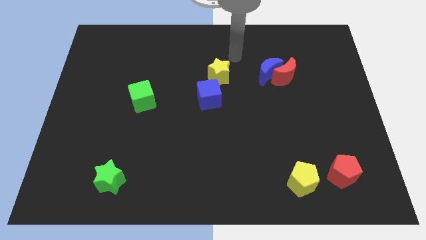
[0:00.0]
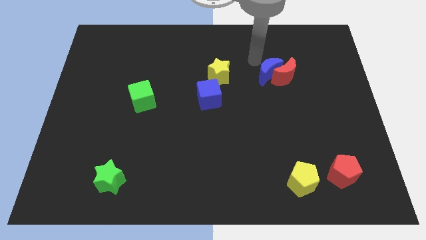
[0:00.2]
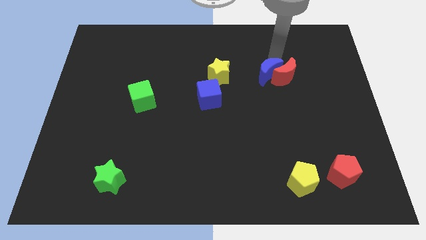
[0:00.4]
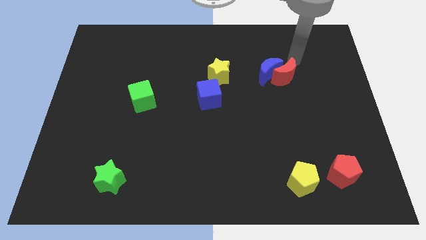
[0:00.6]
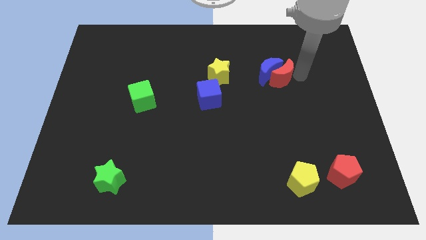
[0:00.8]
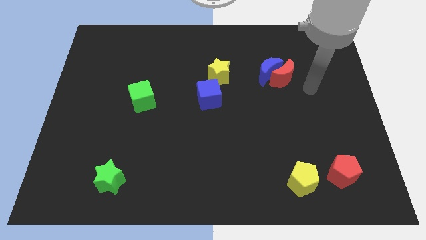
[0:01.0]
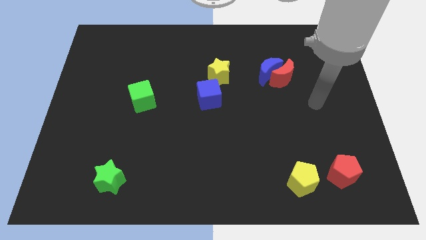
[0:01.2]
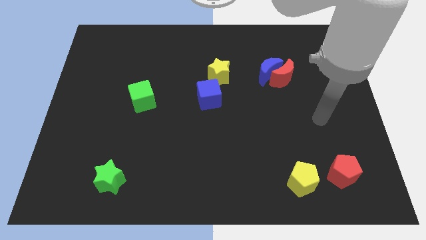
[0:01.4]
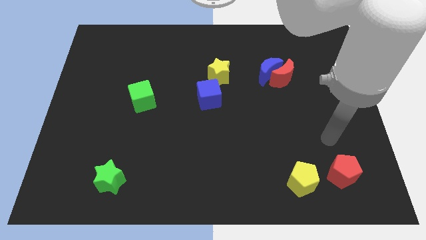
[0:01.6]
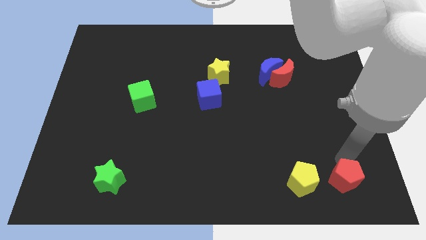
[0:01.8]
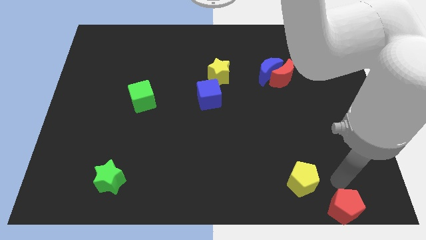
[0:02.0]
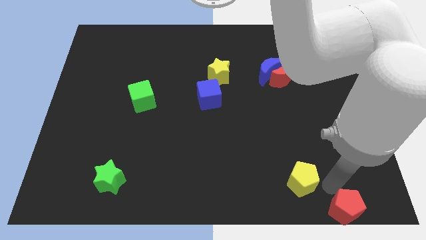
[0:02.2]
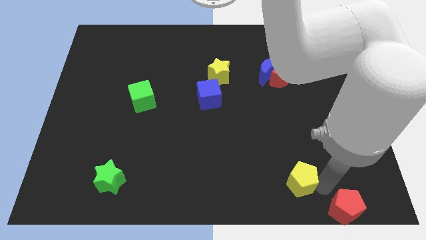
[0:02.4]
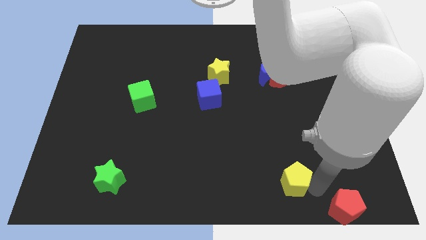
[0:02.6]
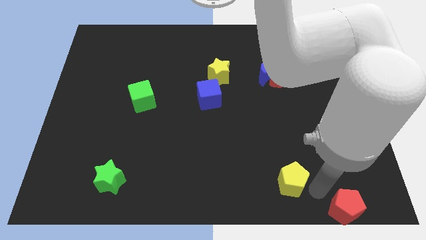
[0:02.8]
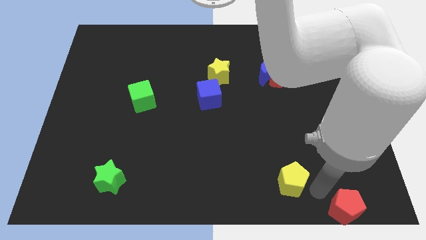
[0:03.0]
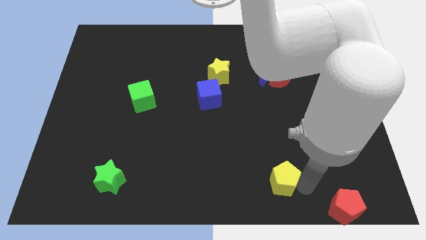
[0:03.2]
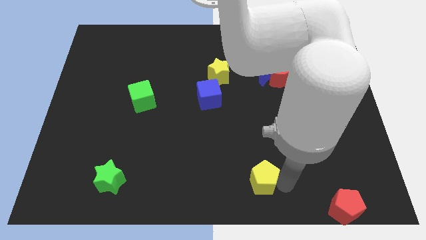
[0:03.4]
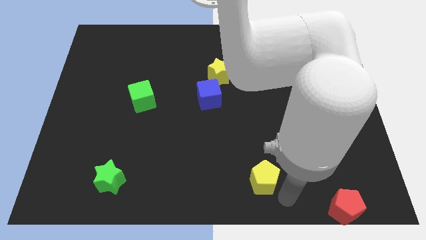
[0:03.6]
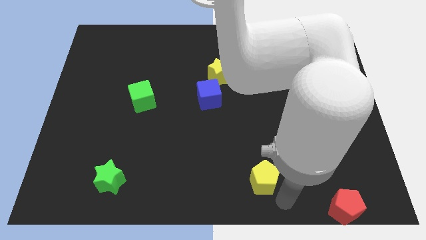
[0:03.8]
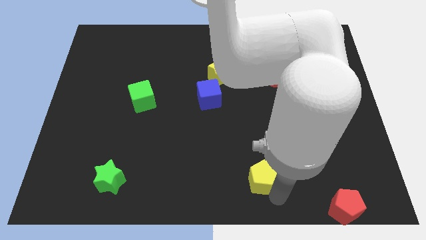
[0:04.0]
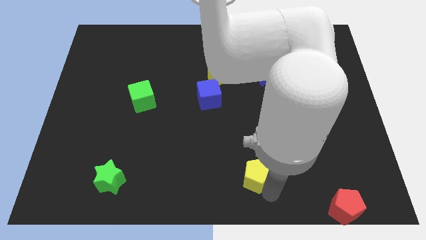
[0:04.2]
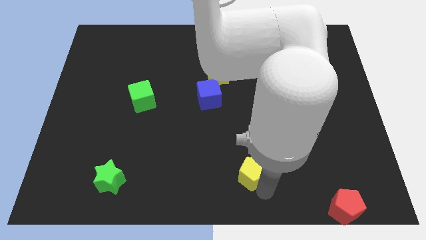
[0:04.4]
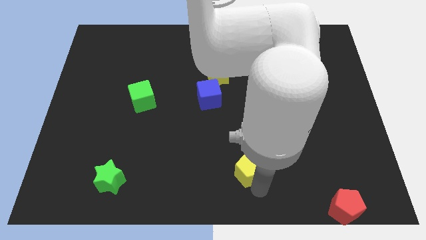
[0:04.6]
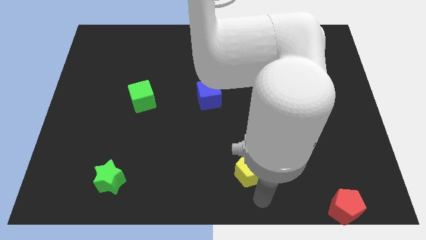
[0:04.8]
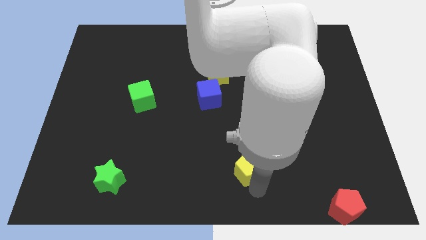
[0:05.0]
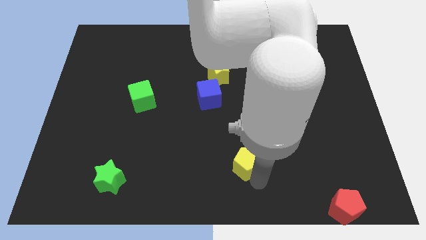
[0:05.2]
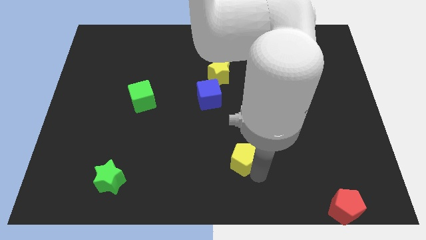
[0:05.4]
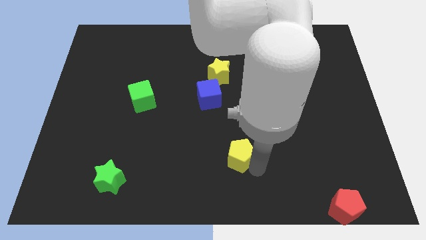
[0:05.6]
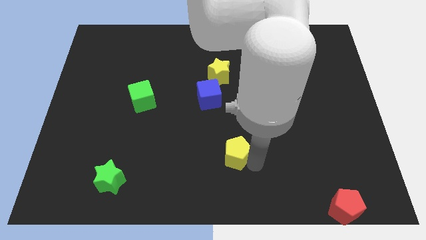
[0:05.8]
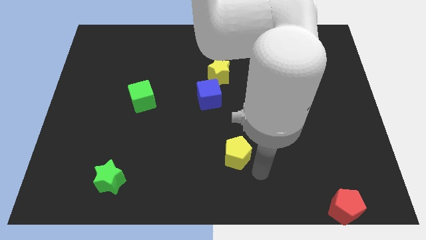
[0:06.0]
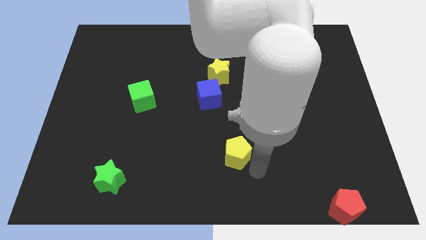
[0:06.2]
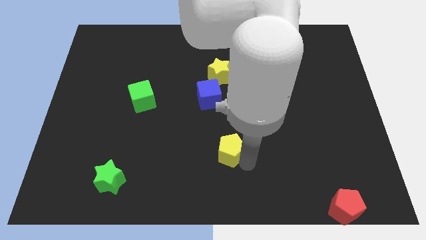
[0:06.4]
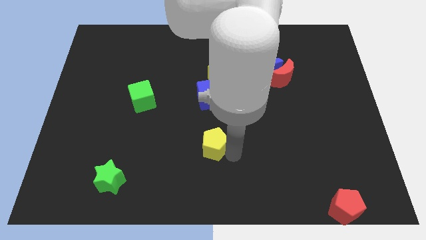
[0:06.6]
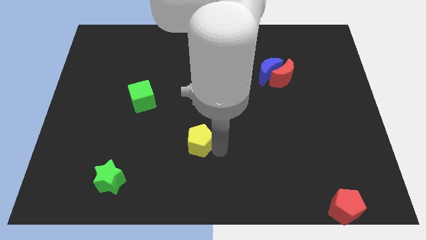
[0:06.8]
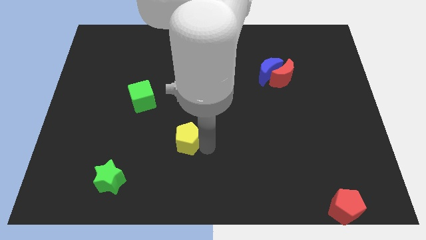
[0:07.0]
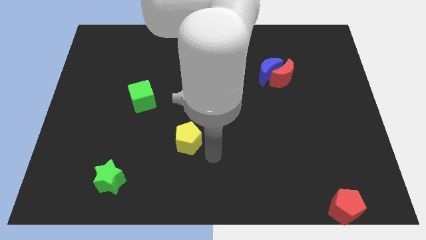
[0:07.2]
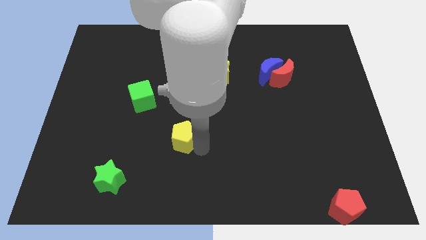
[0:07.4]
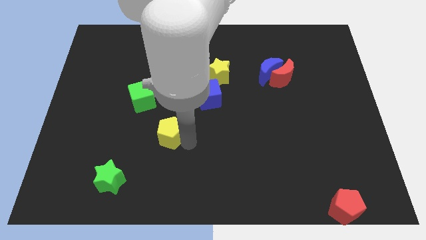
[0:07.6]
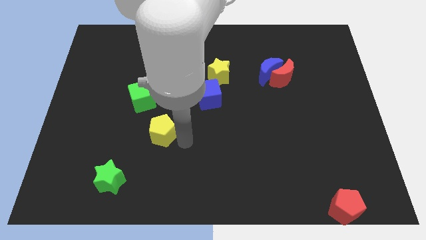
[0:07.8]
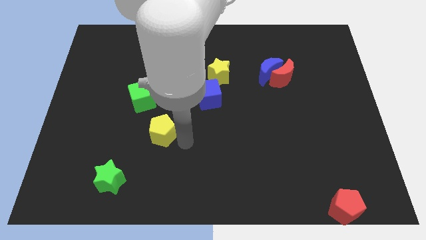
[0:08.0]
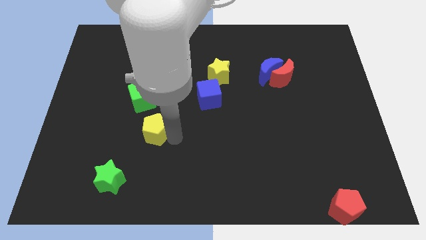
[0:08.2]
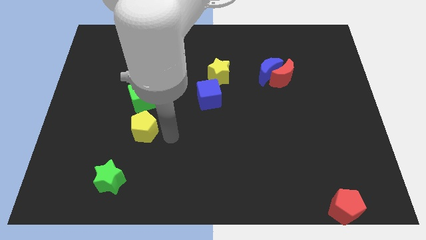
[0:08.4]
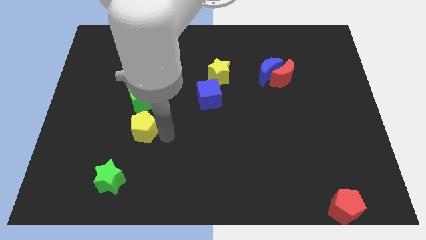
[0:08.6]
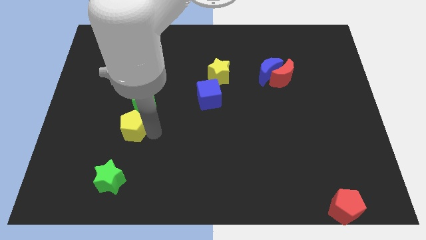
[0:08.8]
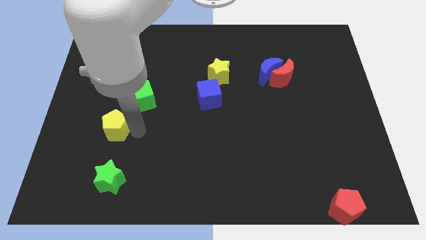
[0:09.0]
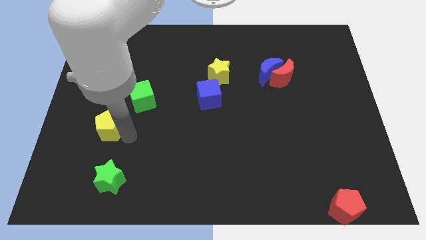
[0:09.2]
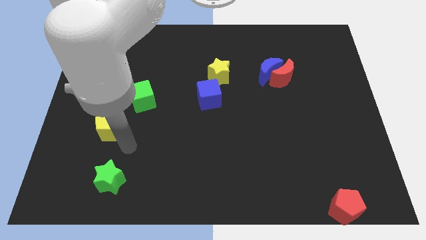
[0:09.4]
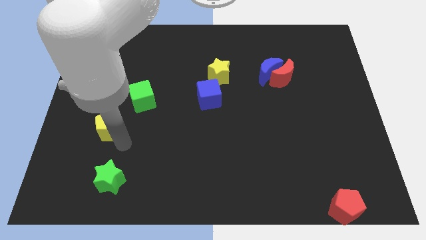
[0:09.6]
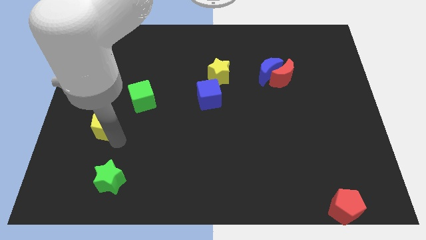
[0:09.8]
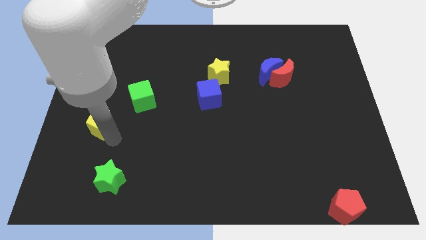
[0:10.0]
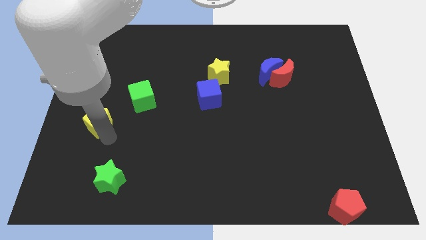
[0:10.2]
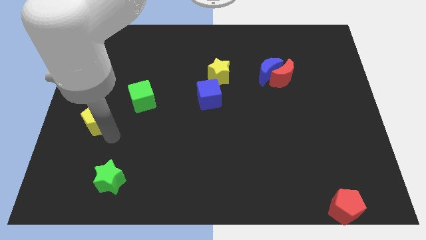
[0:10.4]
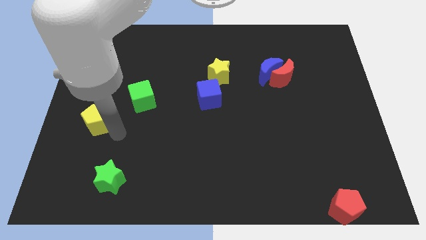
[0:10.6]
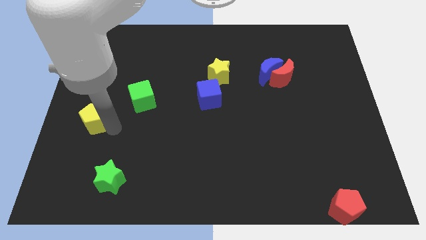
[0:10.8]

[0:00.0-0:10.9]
push the yellow pentagon to the left side of the board

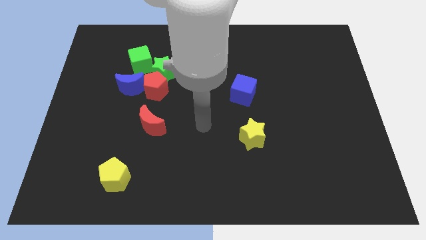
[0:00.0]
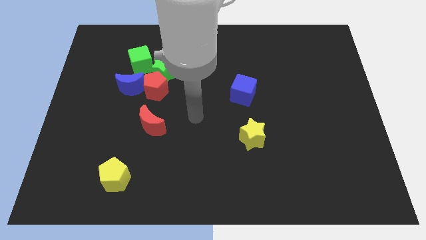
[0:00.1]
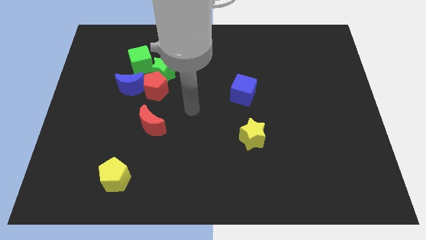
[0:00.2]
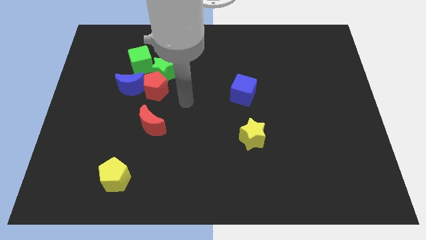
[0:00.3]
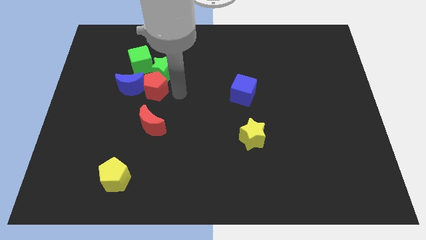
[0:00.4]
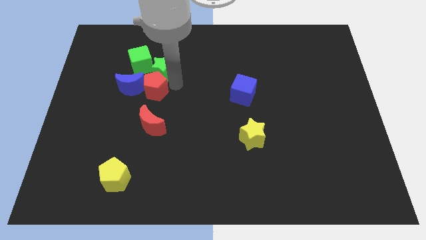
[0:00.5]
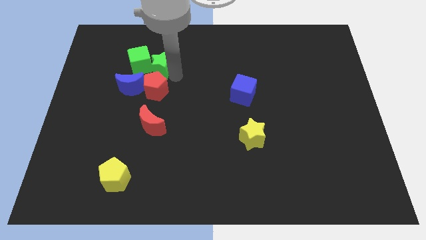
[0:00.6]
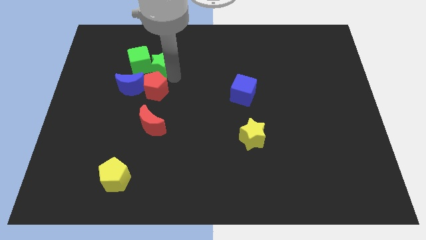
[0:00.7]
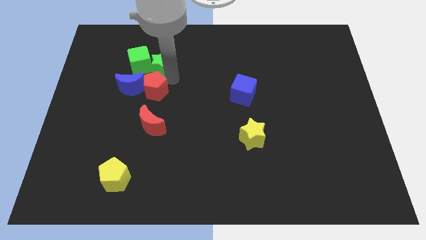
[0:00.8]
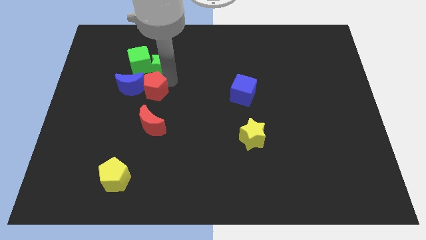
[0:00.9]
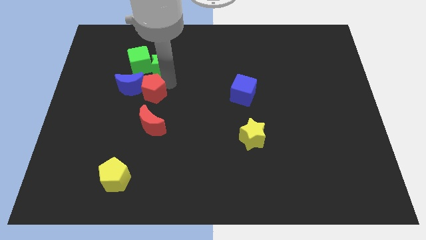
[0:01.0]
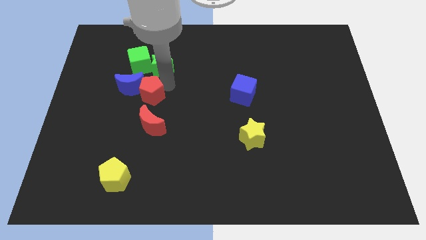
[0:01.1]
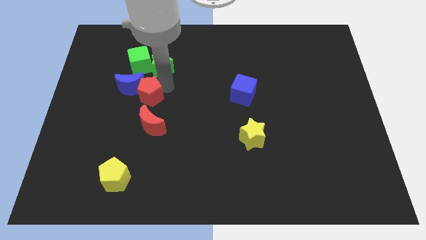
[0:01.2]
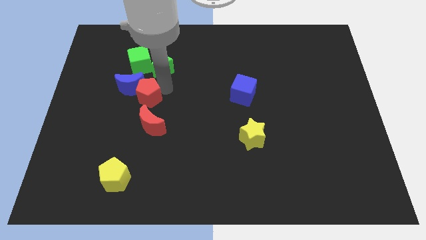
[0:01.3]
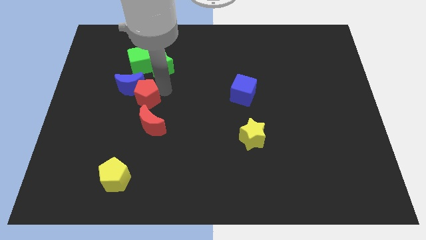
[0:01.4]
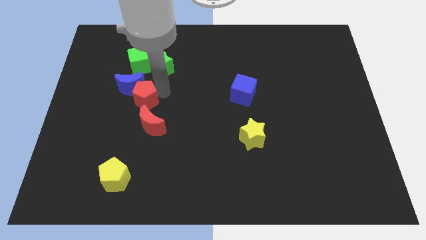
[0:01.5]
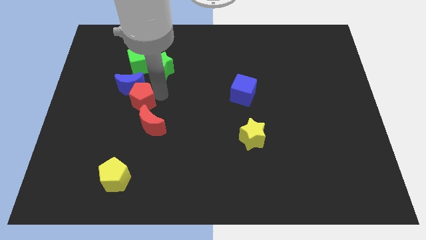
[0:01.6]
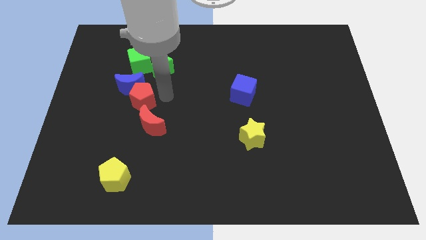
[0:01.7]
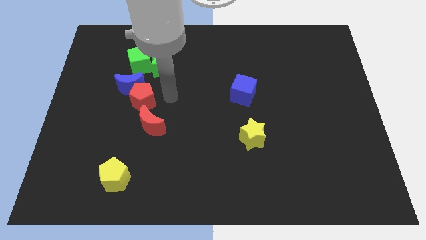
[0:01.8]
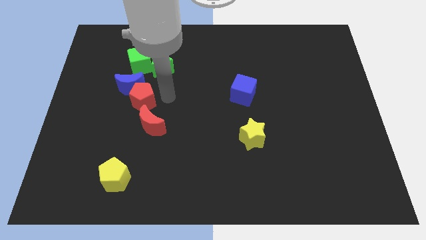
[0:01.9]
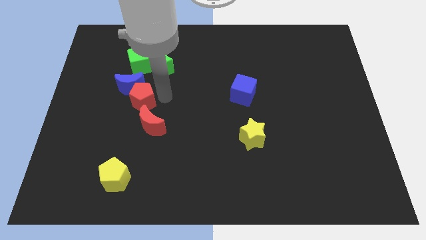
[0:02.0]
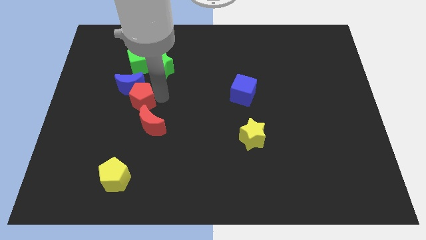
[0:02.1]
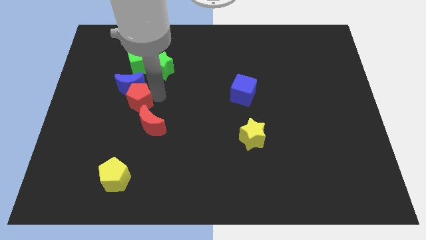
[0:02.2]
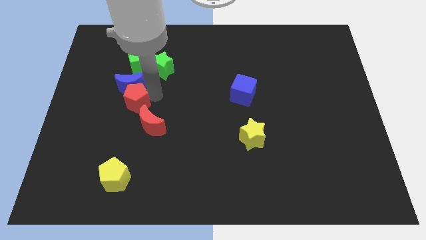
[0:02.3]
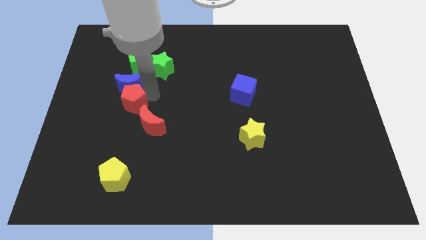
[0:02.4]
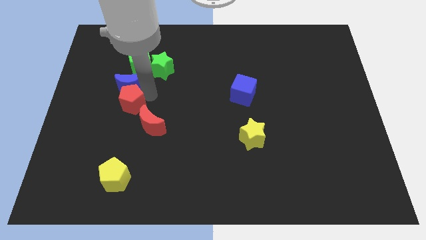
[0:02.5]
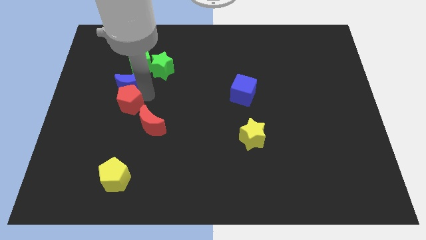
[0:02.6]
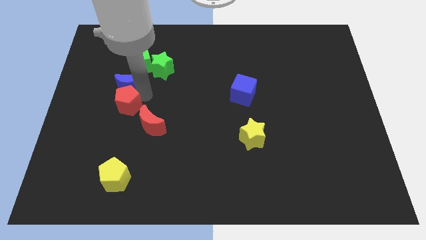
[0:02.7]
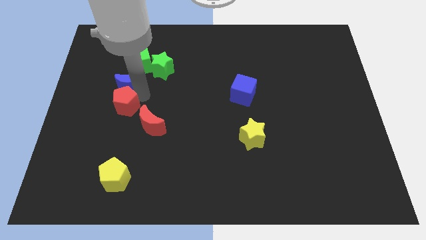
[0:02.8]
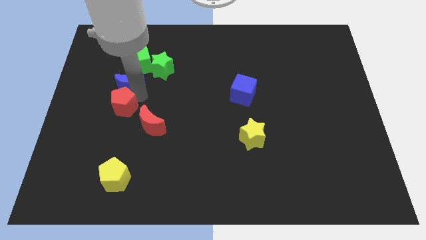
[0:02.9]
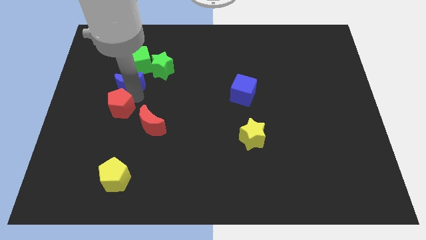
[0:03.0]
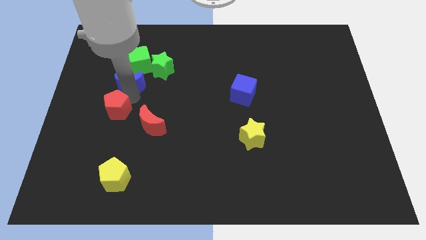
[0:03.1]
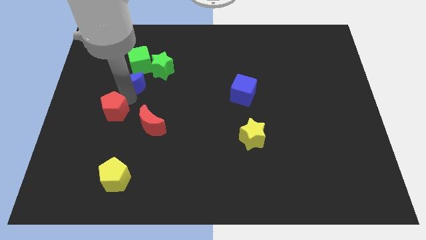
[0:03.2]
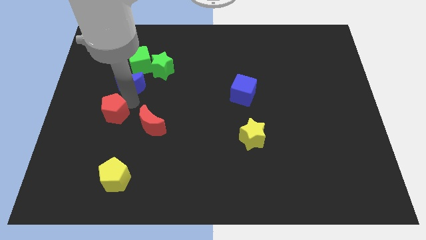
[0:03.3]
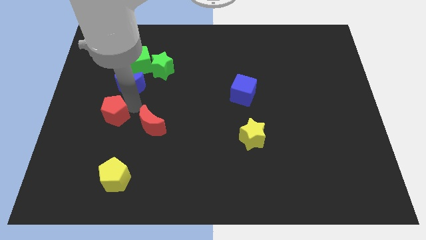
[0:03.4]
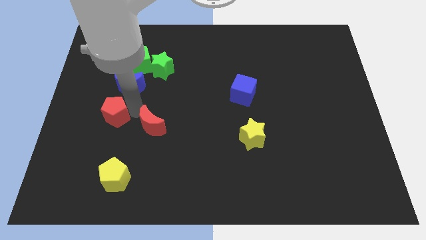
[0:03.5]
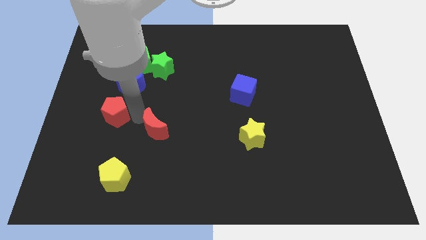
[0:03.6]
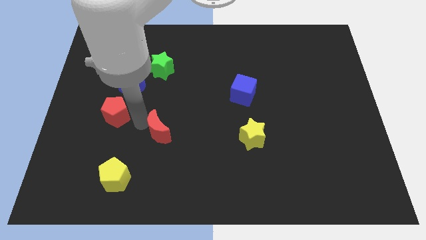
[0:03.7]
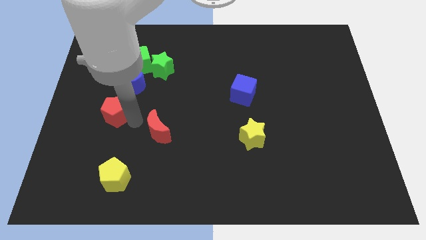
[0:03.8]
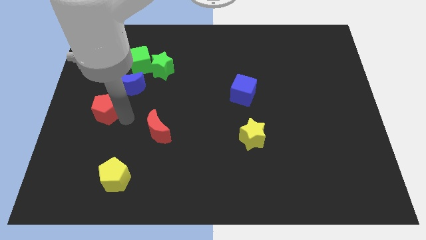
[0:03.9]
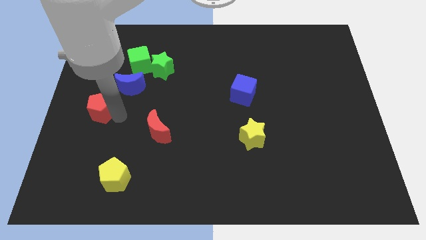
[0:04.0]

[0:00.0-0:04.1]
push the red pentagon to the left side of the board
